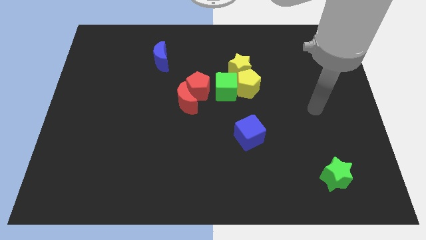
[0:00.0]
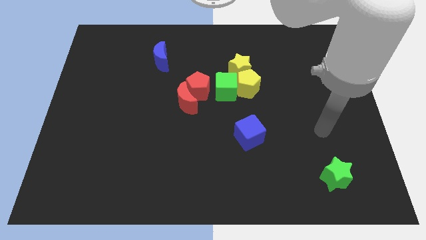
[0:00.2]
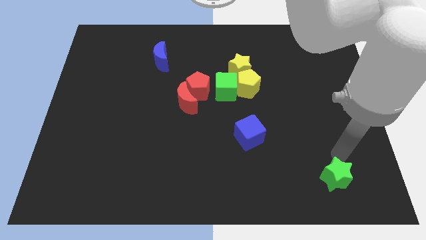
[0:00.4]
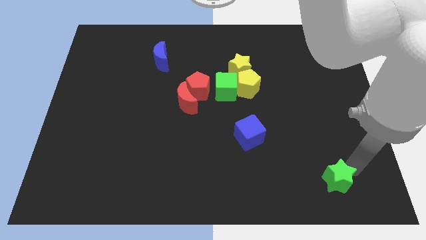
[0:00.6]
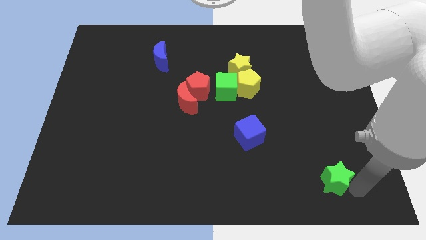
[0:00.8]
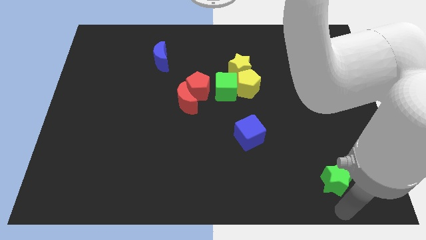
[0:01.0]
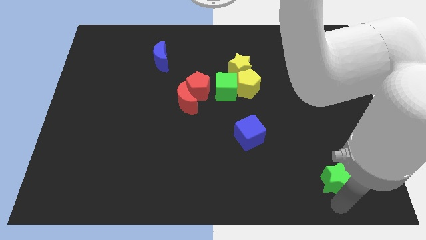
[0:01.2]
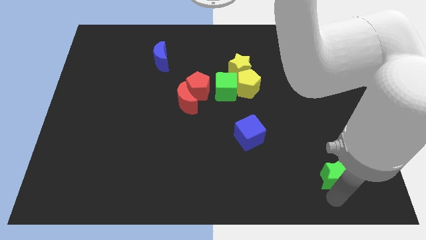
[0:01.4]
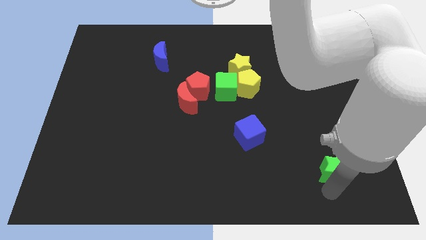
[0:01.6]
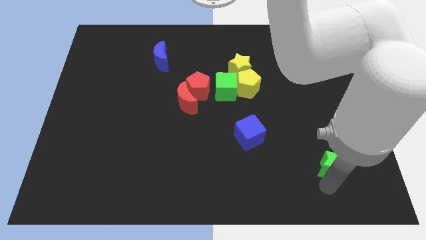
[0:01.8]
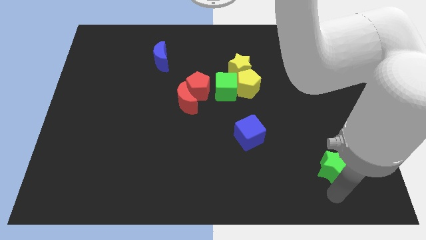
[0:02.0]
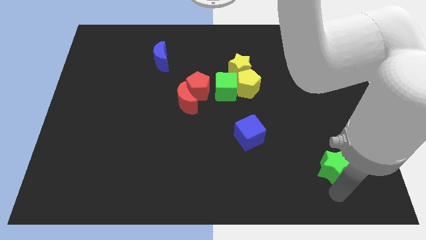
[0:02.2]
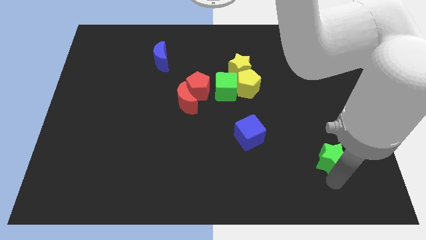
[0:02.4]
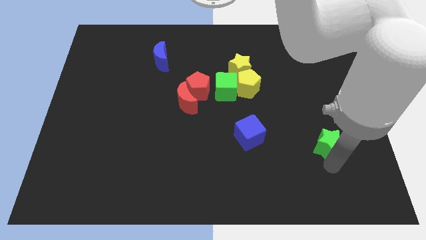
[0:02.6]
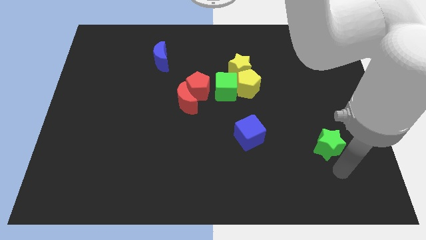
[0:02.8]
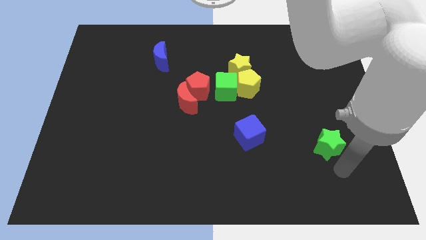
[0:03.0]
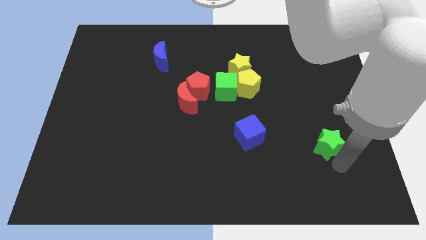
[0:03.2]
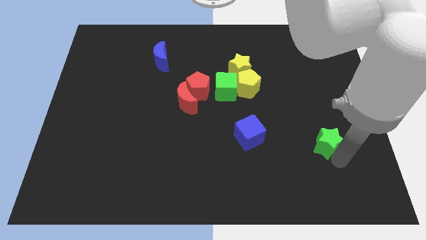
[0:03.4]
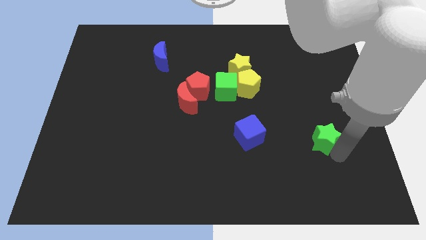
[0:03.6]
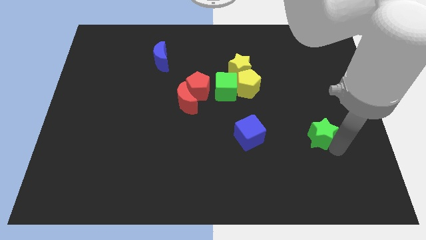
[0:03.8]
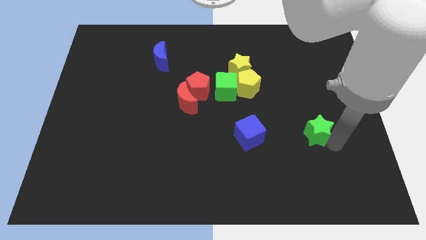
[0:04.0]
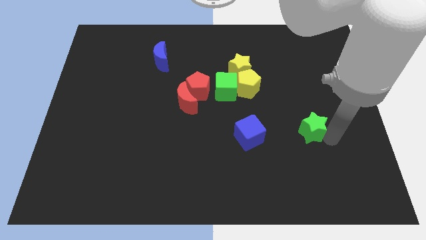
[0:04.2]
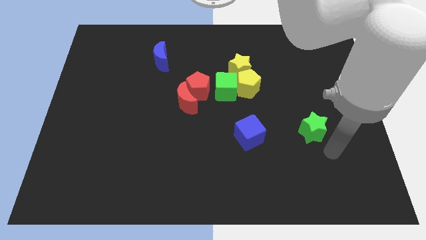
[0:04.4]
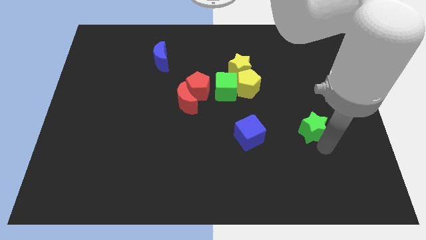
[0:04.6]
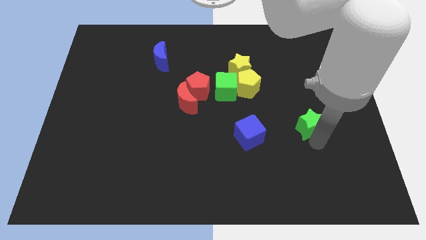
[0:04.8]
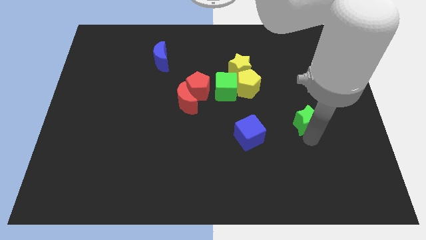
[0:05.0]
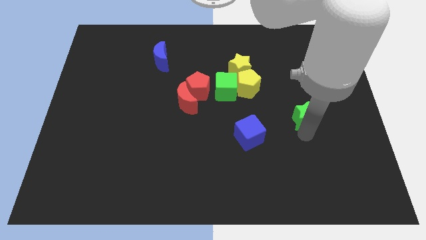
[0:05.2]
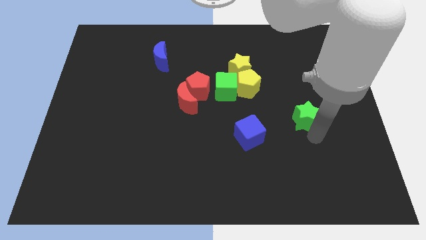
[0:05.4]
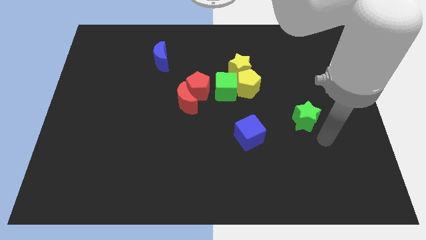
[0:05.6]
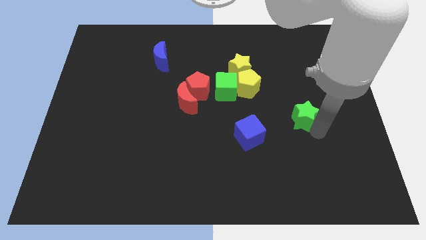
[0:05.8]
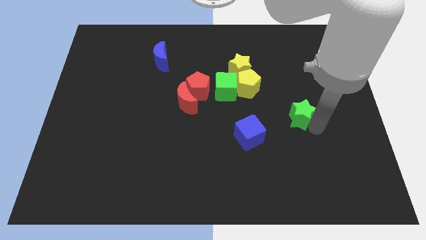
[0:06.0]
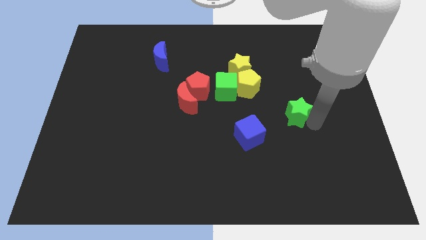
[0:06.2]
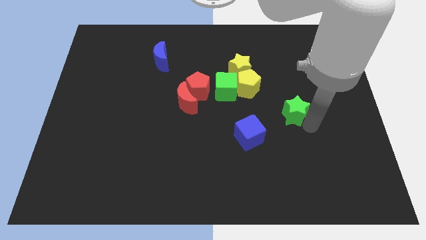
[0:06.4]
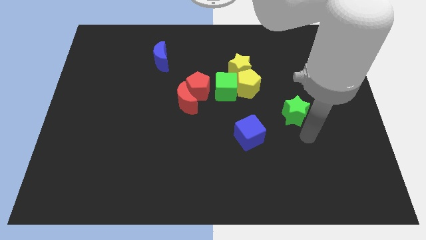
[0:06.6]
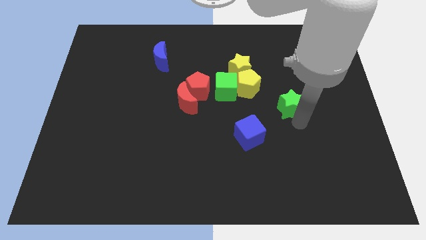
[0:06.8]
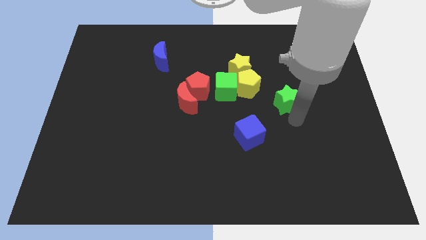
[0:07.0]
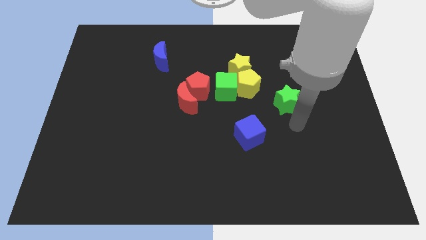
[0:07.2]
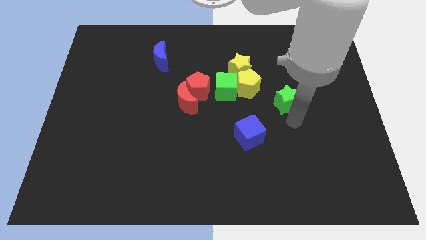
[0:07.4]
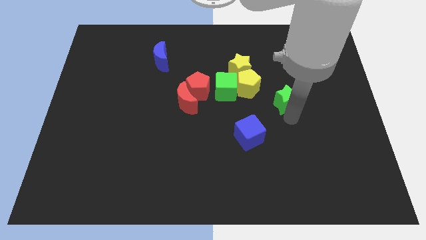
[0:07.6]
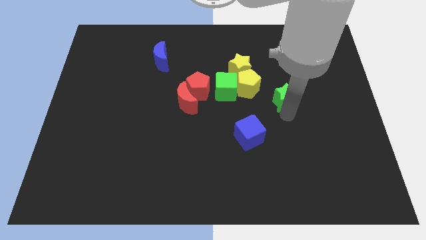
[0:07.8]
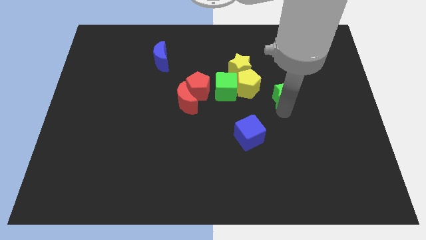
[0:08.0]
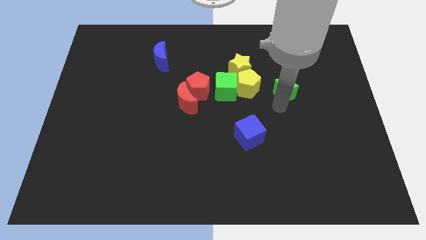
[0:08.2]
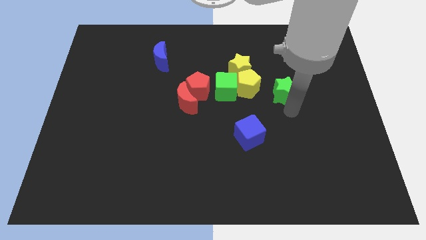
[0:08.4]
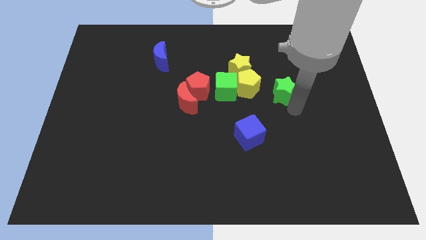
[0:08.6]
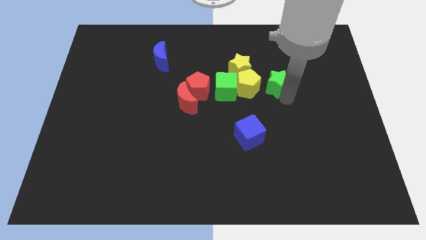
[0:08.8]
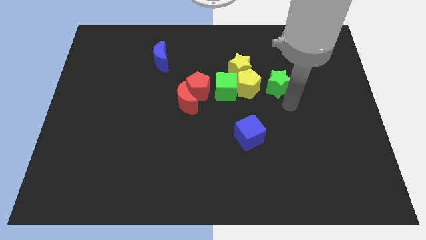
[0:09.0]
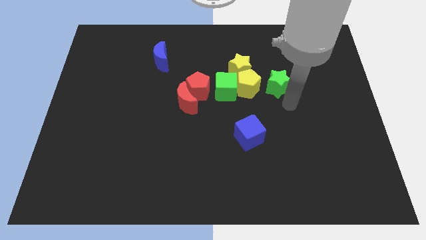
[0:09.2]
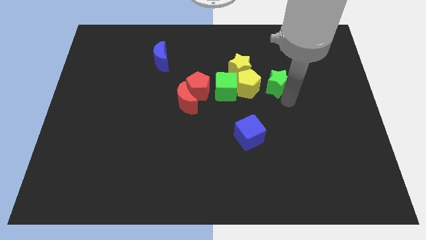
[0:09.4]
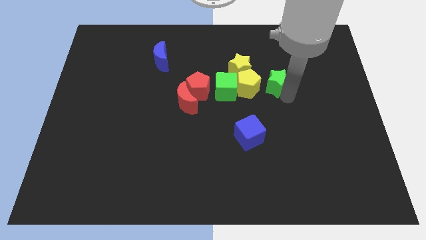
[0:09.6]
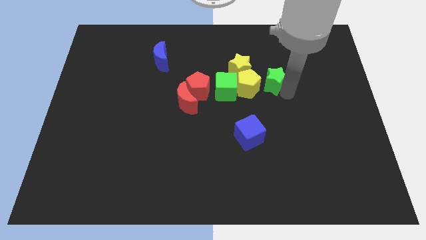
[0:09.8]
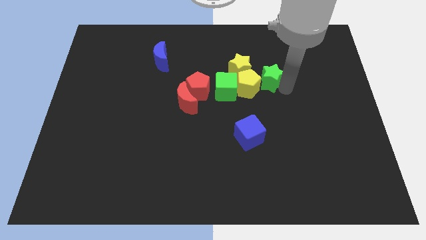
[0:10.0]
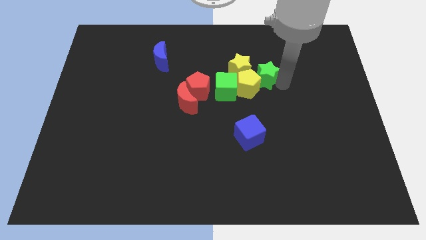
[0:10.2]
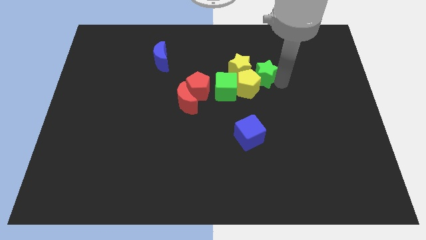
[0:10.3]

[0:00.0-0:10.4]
put the green star diagonally up and to the right of the green cube

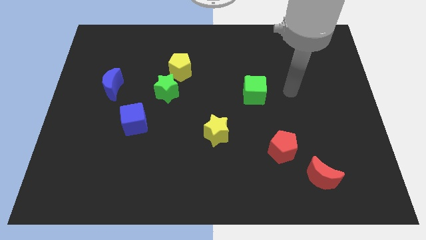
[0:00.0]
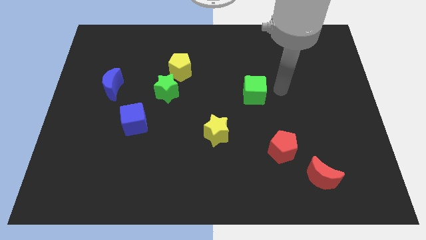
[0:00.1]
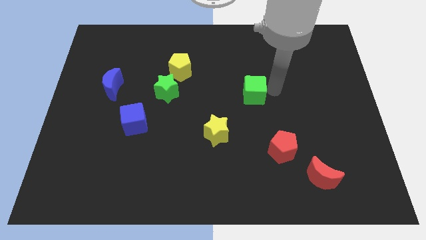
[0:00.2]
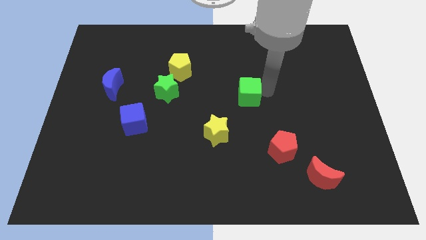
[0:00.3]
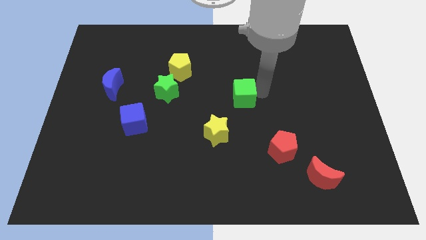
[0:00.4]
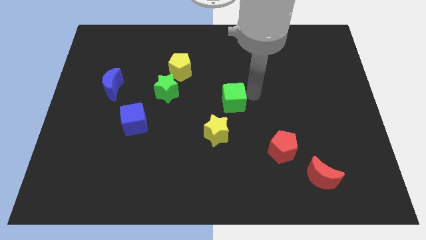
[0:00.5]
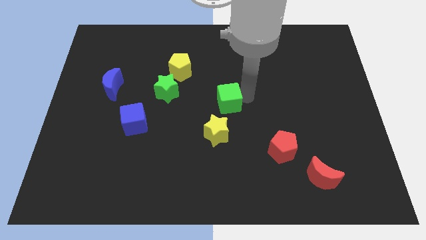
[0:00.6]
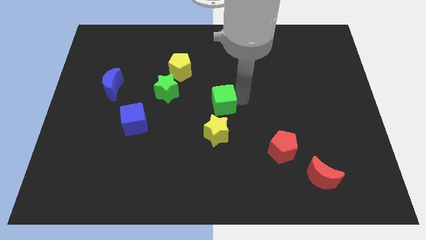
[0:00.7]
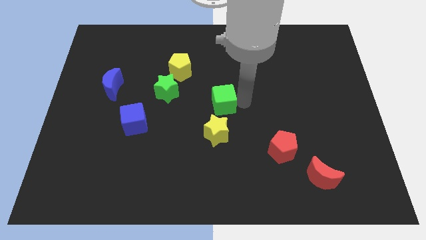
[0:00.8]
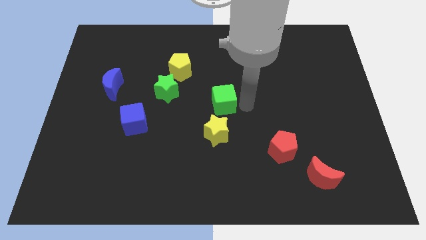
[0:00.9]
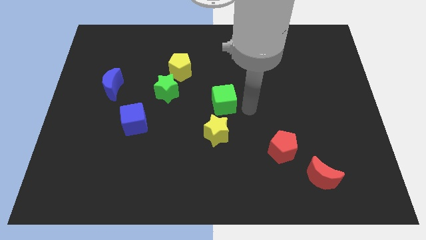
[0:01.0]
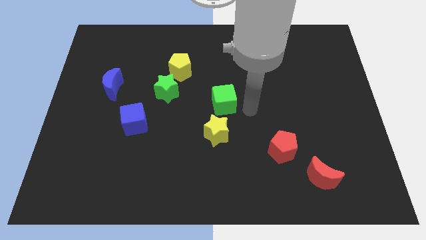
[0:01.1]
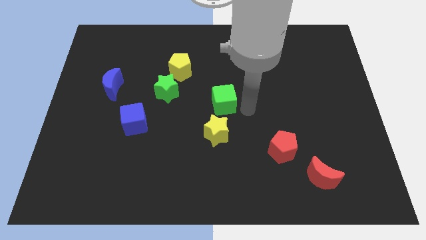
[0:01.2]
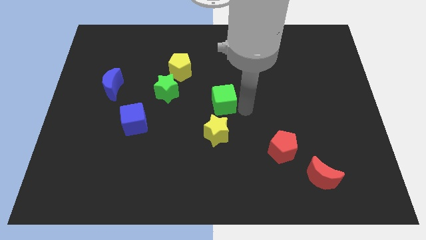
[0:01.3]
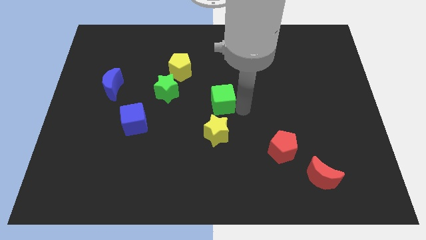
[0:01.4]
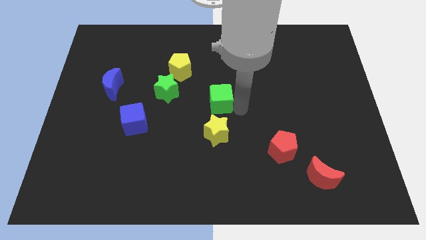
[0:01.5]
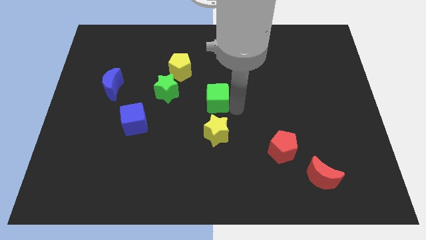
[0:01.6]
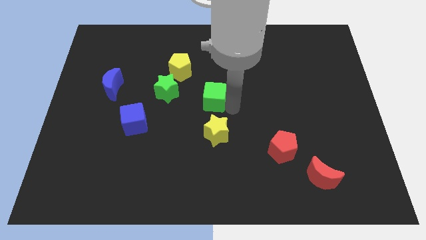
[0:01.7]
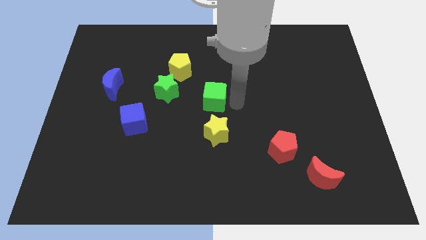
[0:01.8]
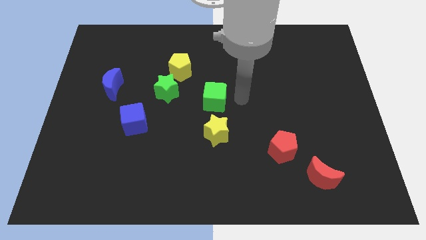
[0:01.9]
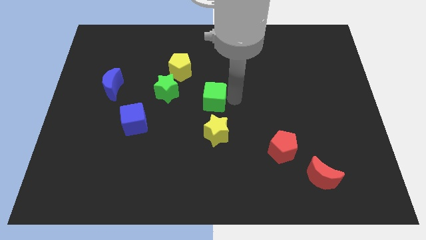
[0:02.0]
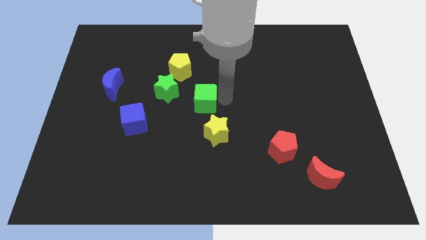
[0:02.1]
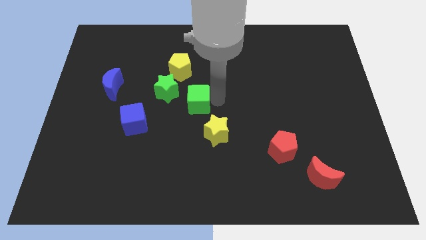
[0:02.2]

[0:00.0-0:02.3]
slide the green cube to the bottom of the yellow pentagon

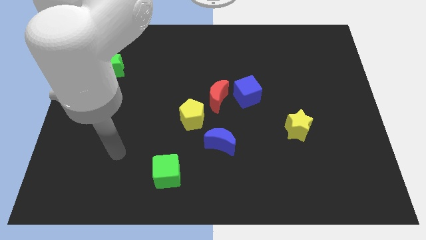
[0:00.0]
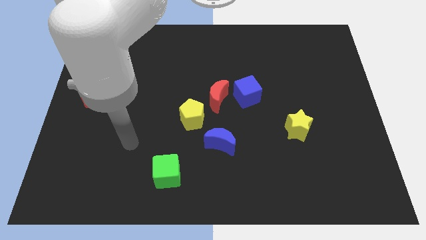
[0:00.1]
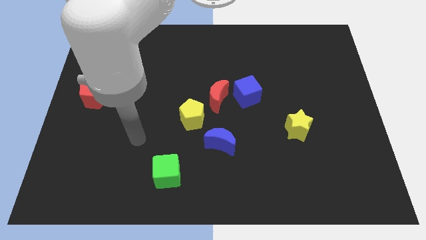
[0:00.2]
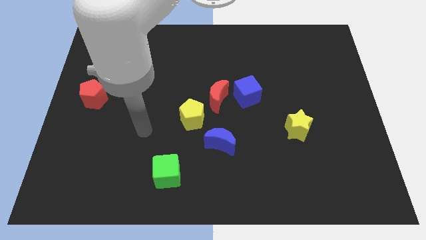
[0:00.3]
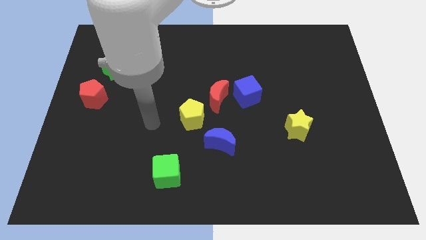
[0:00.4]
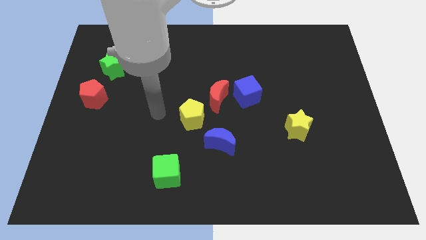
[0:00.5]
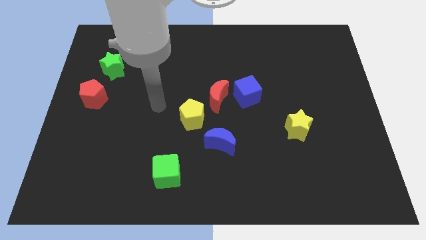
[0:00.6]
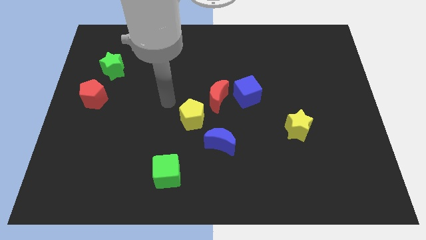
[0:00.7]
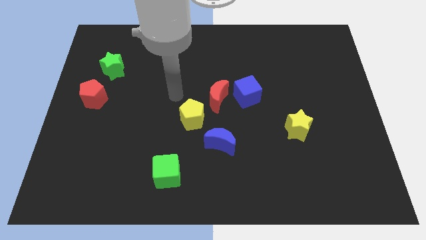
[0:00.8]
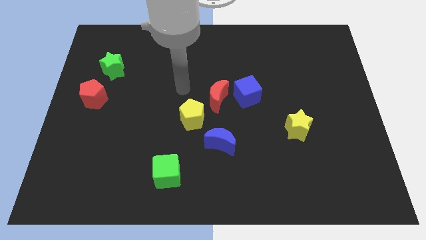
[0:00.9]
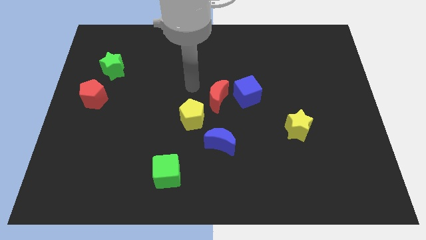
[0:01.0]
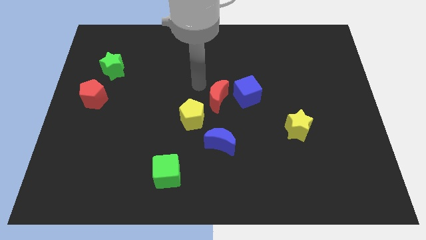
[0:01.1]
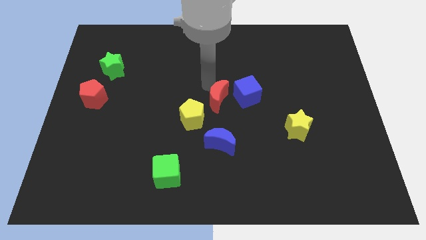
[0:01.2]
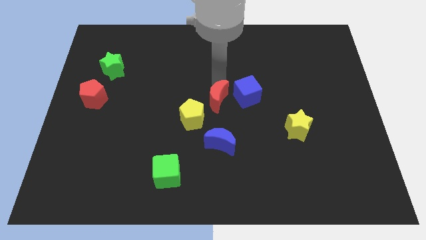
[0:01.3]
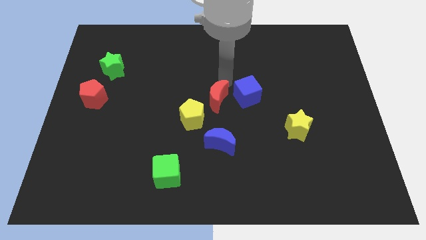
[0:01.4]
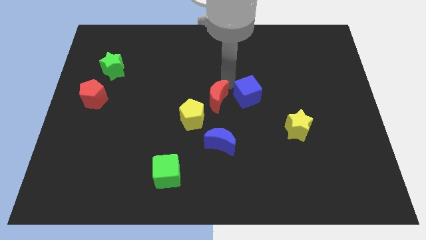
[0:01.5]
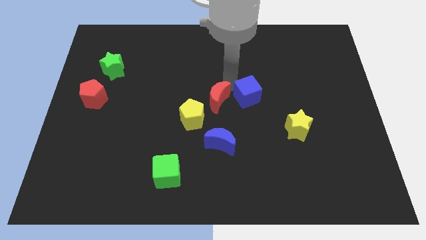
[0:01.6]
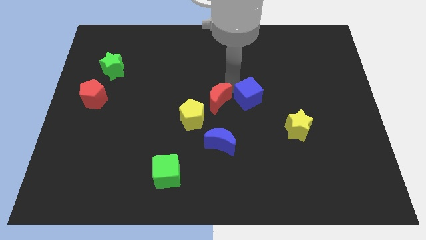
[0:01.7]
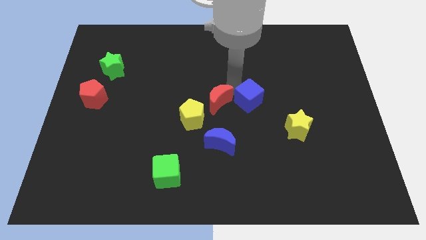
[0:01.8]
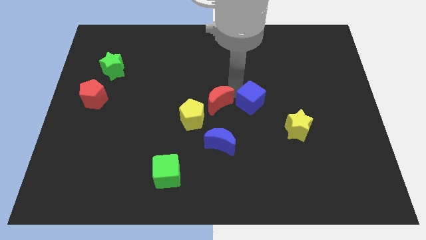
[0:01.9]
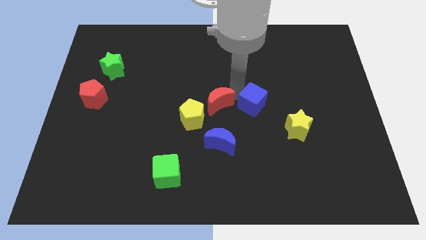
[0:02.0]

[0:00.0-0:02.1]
put the blue cube to the top left of the yellow star
